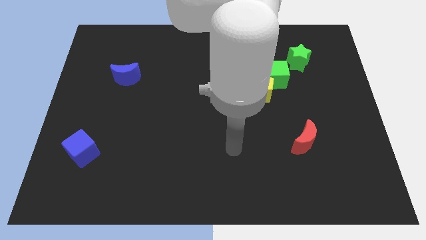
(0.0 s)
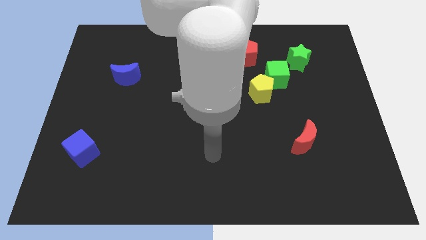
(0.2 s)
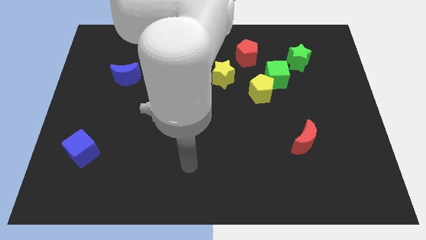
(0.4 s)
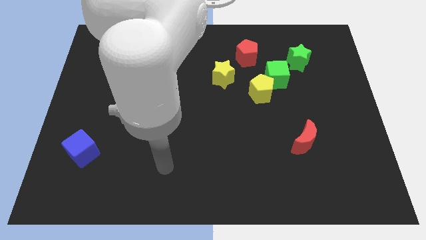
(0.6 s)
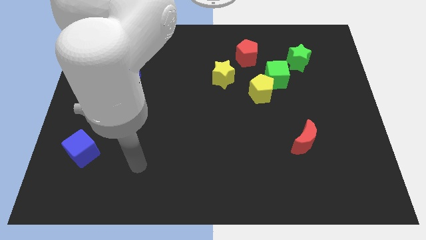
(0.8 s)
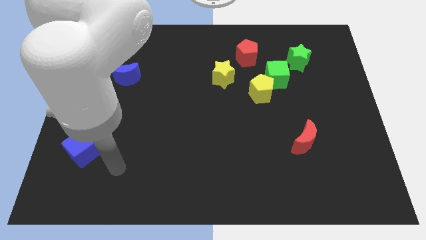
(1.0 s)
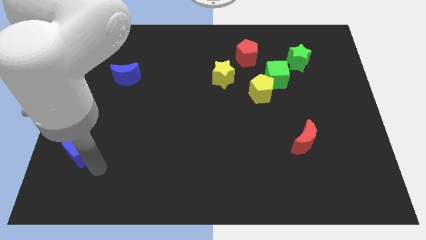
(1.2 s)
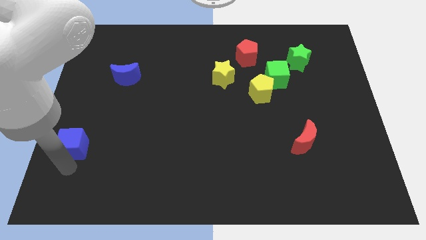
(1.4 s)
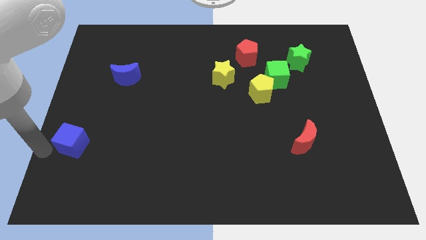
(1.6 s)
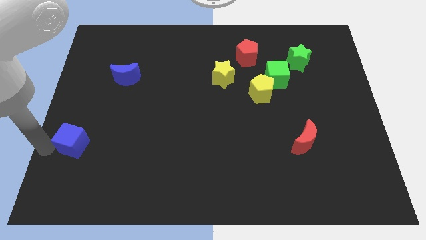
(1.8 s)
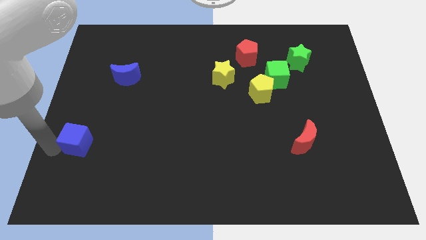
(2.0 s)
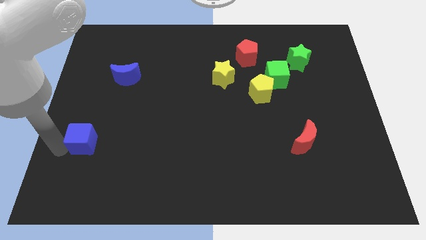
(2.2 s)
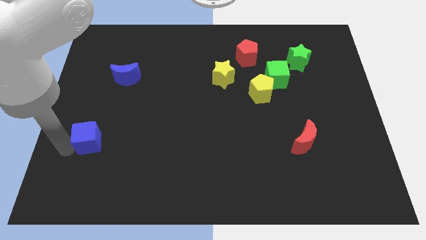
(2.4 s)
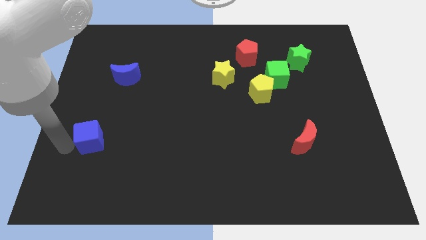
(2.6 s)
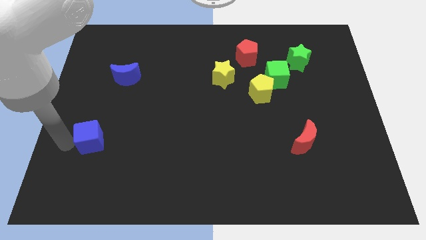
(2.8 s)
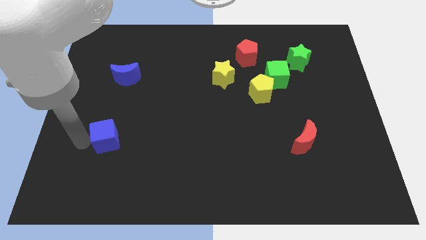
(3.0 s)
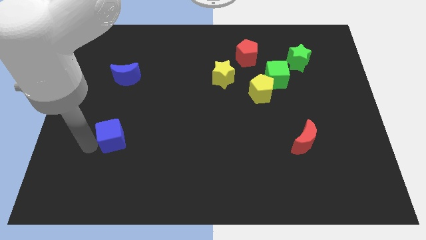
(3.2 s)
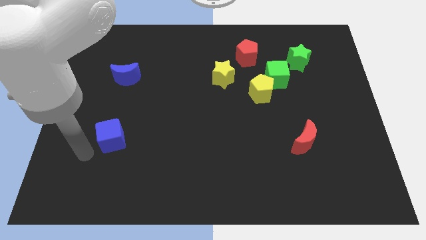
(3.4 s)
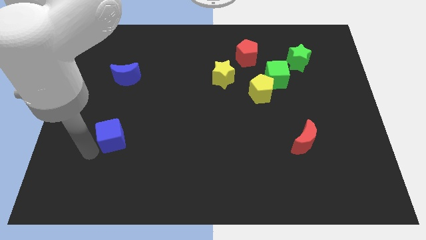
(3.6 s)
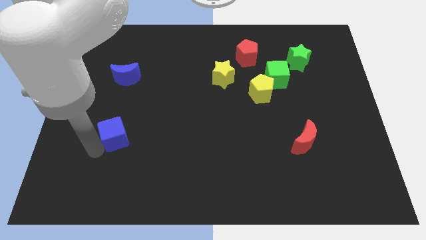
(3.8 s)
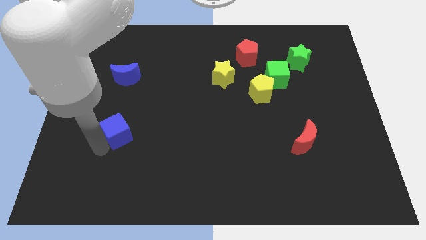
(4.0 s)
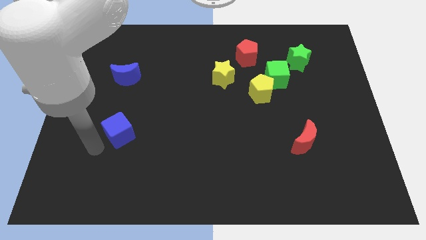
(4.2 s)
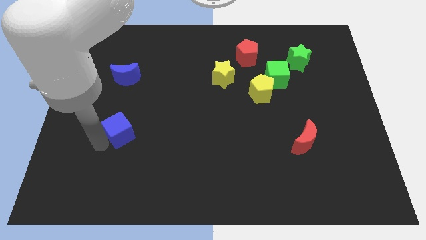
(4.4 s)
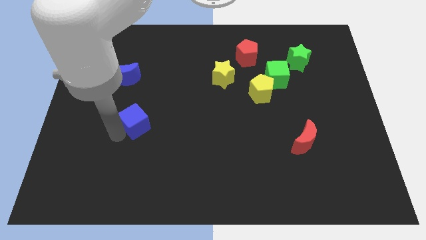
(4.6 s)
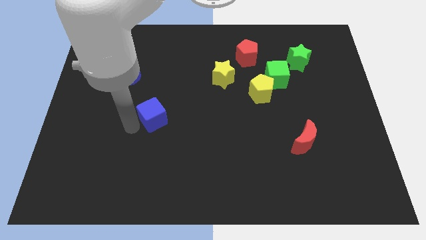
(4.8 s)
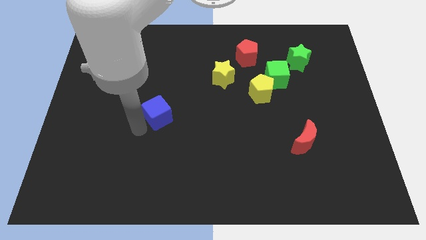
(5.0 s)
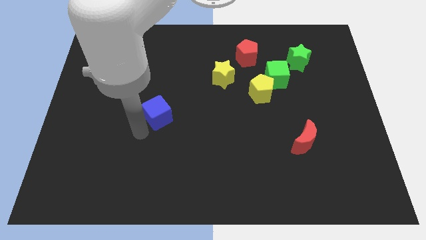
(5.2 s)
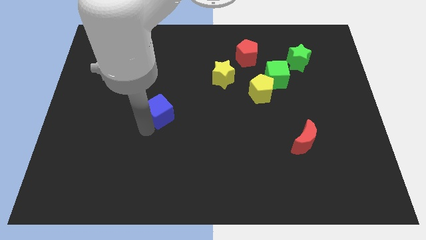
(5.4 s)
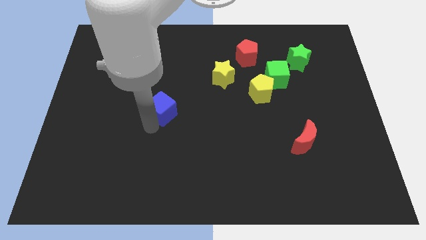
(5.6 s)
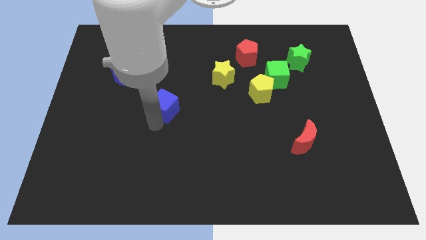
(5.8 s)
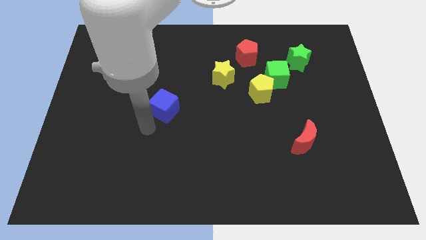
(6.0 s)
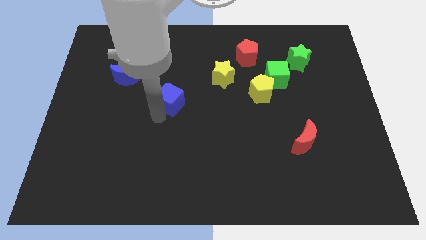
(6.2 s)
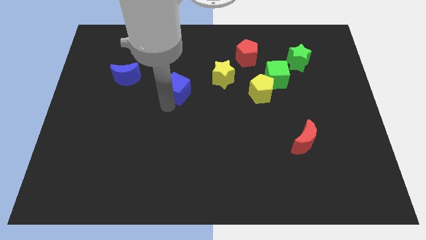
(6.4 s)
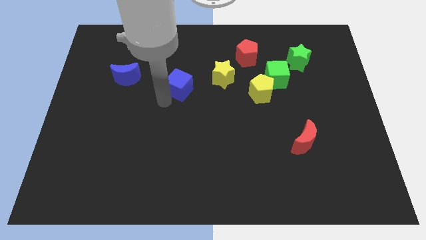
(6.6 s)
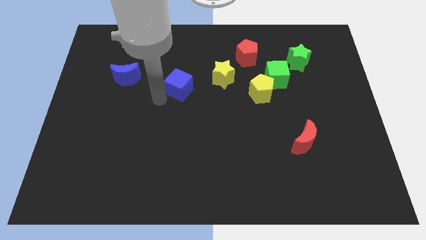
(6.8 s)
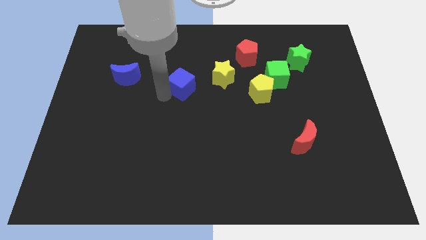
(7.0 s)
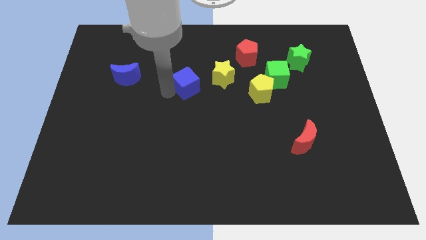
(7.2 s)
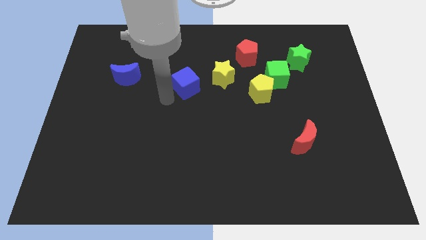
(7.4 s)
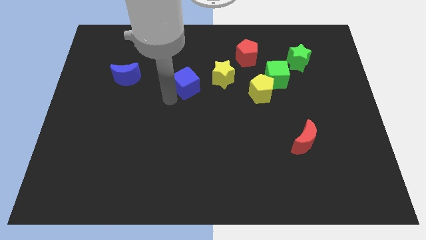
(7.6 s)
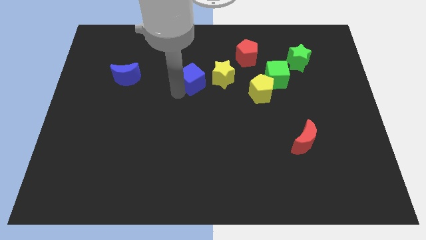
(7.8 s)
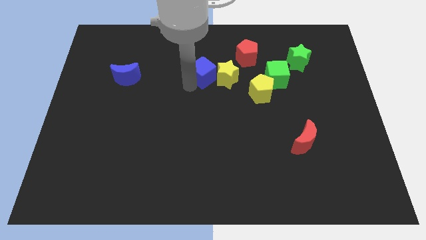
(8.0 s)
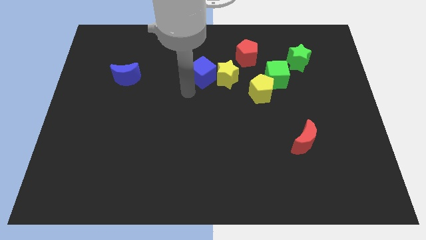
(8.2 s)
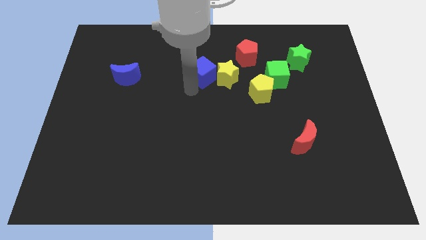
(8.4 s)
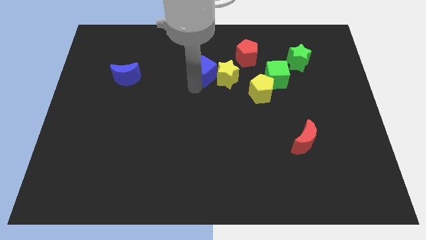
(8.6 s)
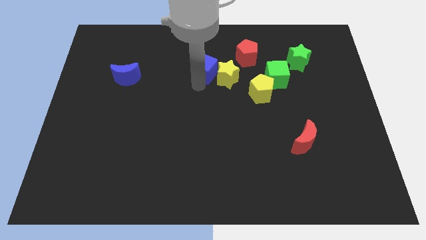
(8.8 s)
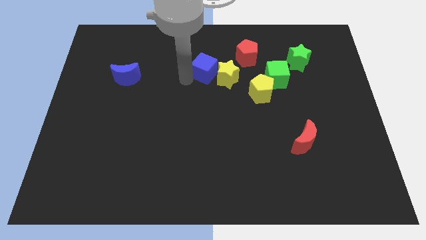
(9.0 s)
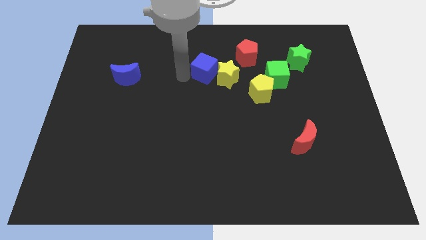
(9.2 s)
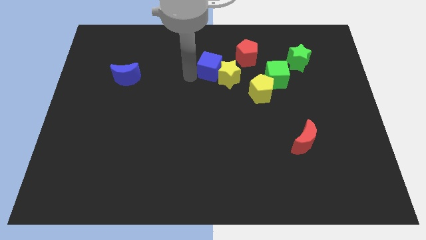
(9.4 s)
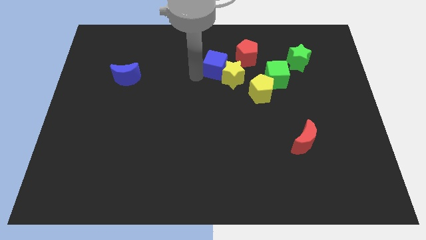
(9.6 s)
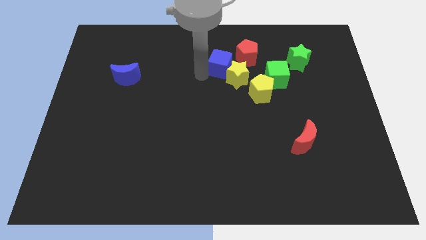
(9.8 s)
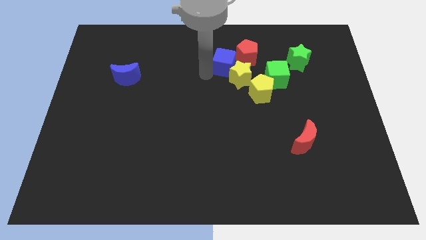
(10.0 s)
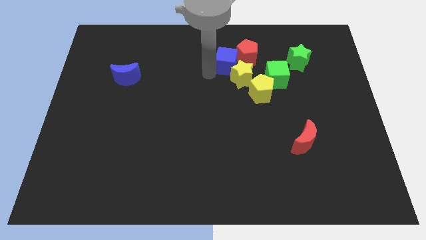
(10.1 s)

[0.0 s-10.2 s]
move the blue cube next to the red pentagon

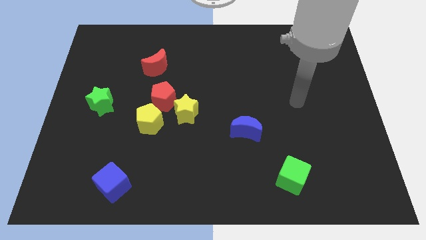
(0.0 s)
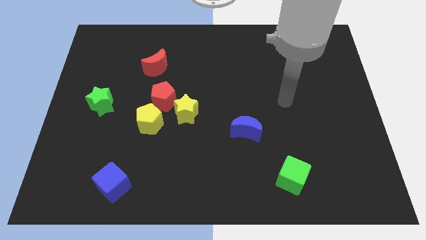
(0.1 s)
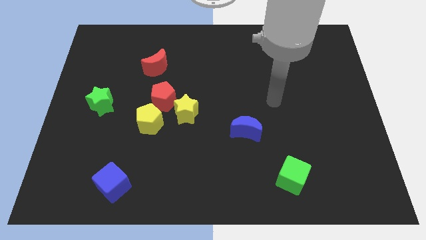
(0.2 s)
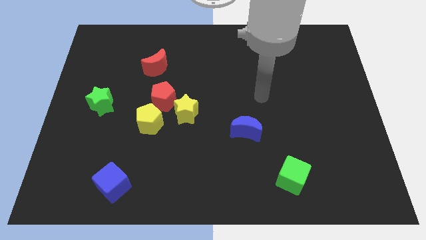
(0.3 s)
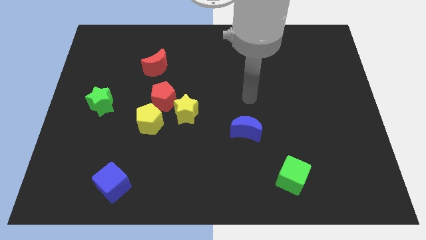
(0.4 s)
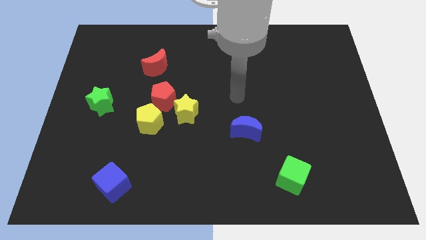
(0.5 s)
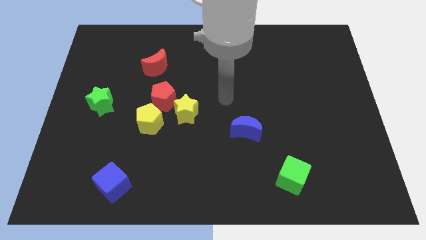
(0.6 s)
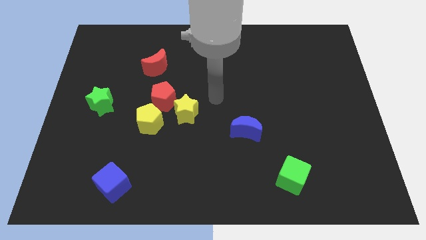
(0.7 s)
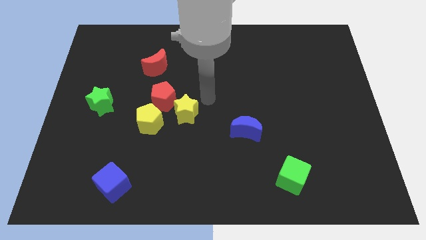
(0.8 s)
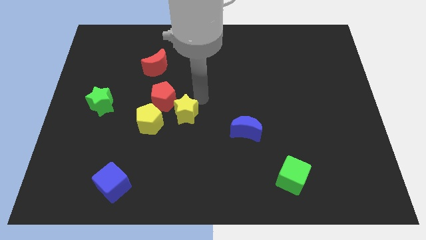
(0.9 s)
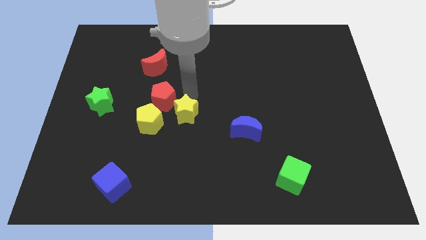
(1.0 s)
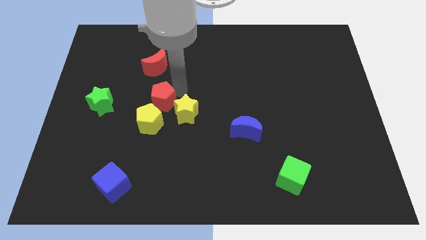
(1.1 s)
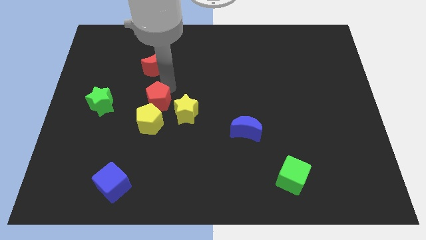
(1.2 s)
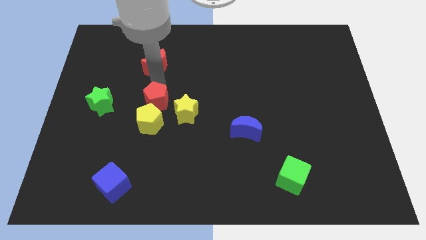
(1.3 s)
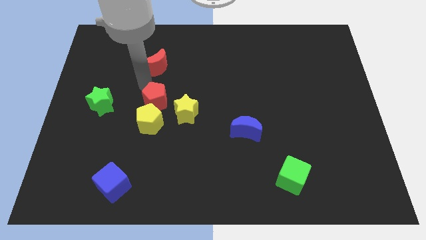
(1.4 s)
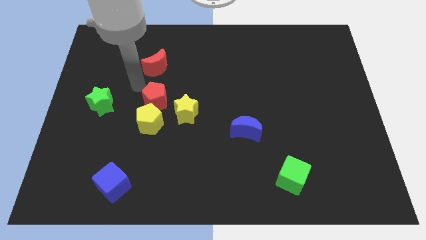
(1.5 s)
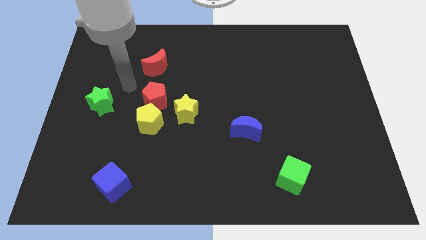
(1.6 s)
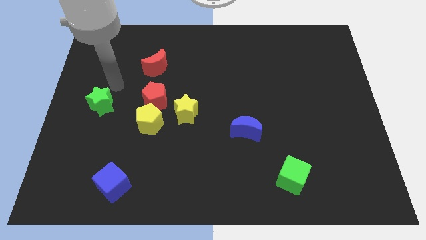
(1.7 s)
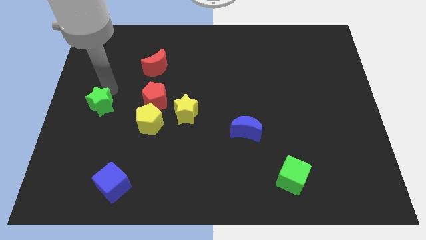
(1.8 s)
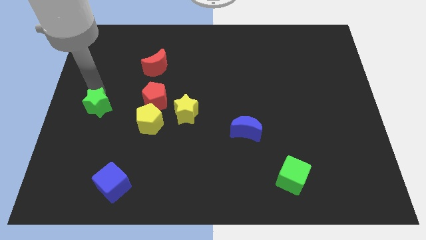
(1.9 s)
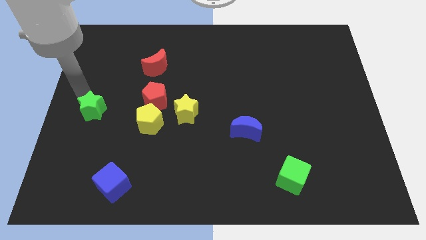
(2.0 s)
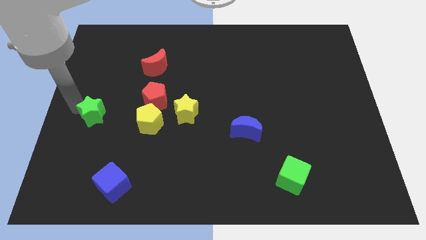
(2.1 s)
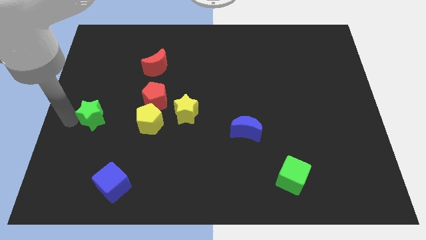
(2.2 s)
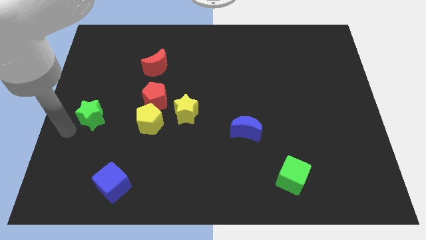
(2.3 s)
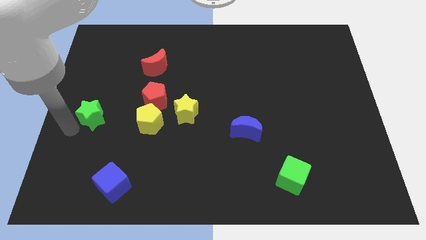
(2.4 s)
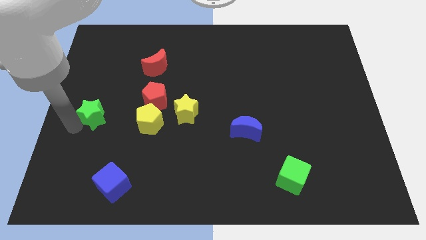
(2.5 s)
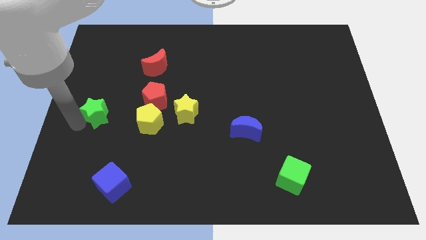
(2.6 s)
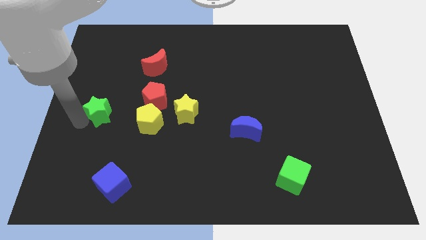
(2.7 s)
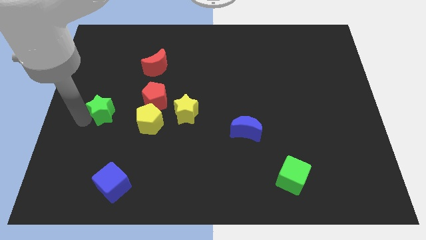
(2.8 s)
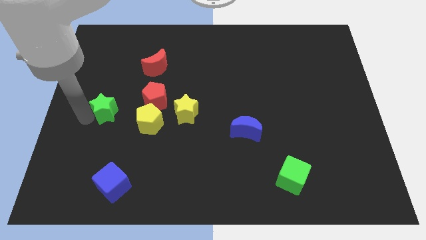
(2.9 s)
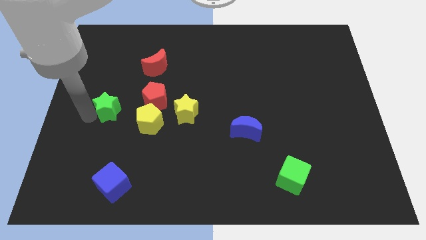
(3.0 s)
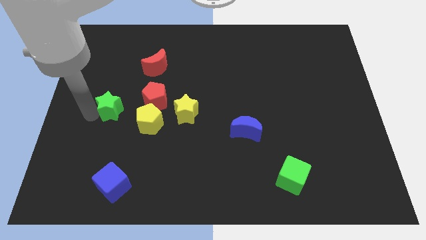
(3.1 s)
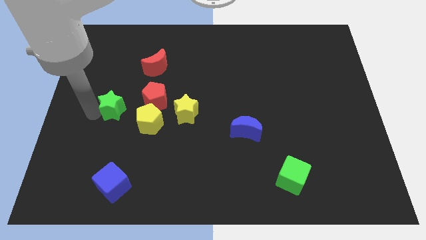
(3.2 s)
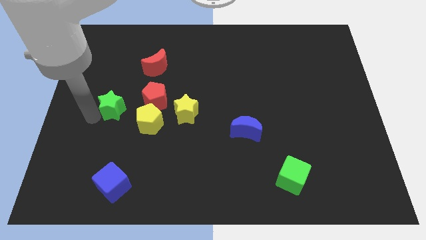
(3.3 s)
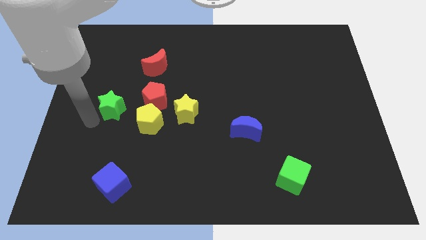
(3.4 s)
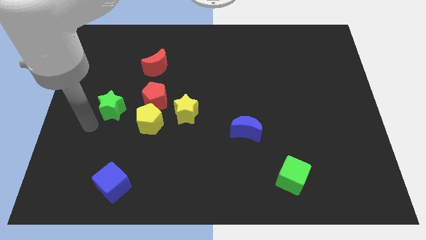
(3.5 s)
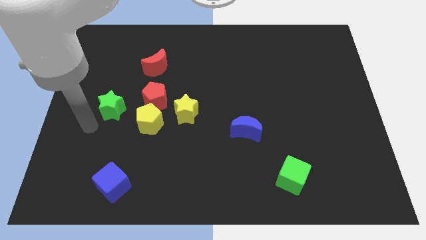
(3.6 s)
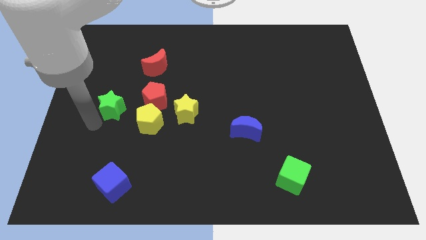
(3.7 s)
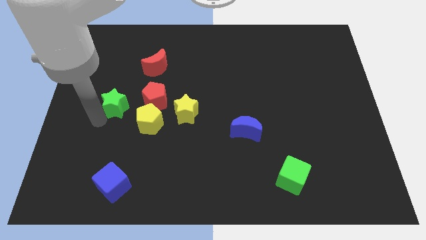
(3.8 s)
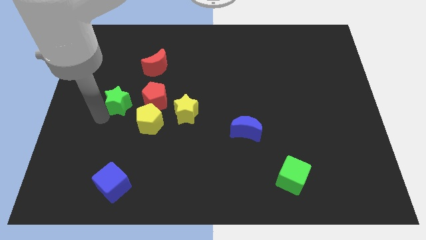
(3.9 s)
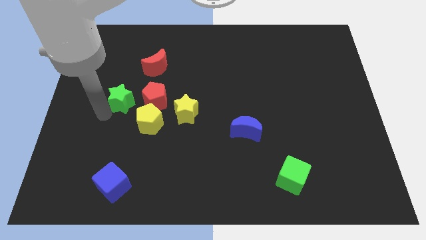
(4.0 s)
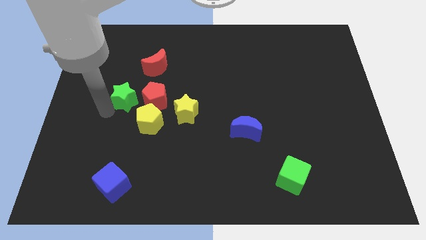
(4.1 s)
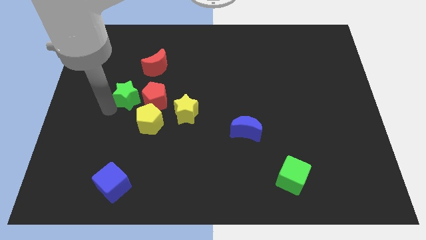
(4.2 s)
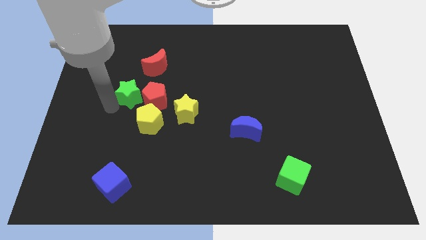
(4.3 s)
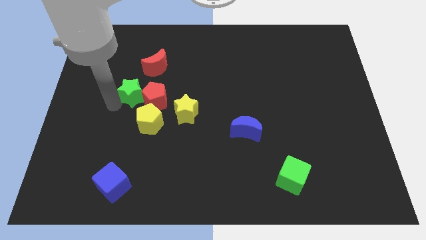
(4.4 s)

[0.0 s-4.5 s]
slide the green star to the red pentagon
